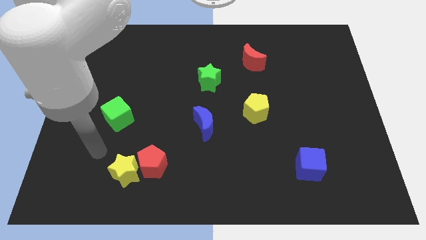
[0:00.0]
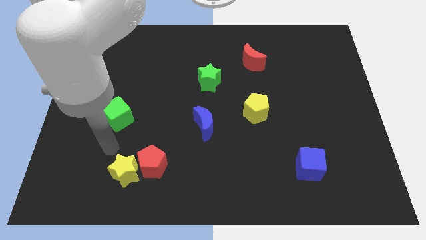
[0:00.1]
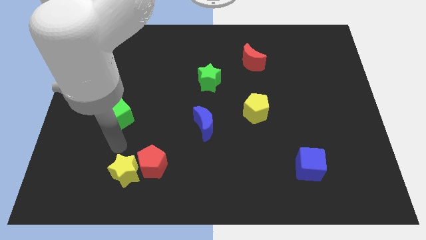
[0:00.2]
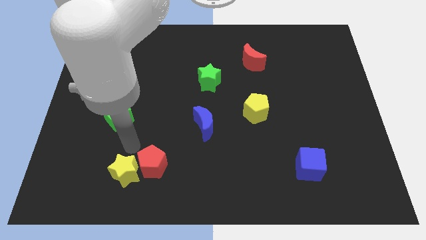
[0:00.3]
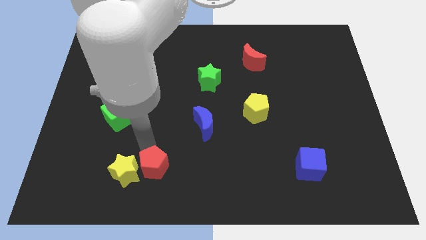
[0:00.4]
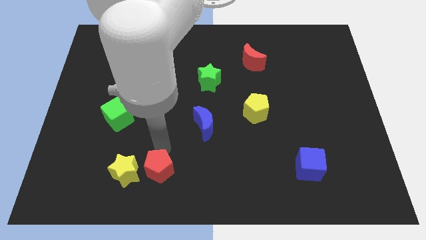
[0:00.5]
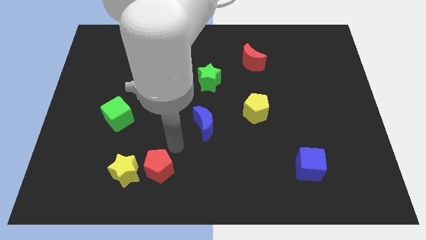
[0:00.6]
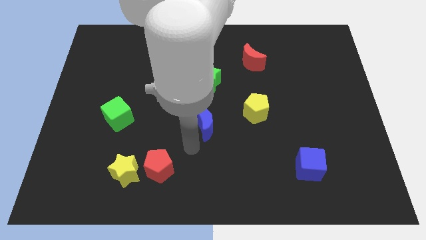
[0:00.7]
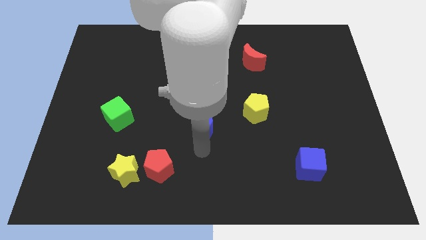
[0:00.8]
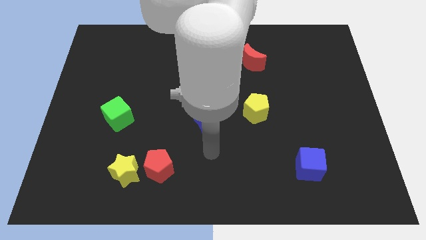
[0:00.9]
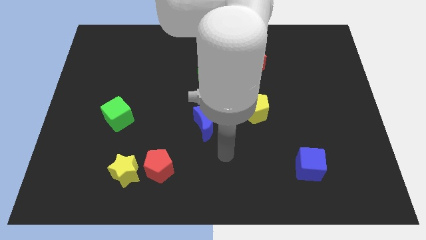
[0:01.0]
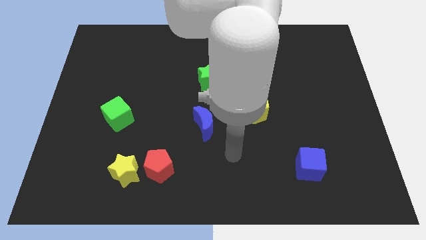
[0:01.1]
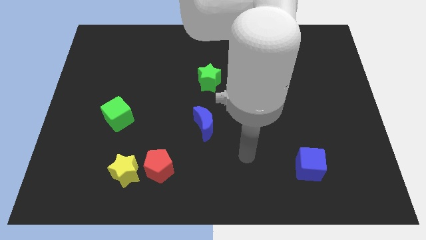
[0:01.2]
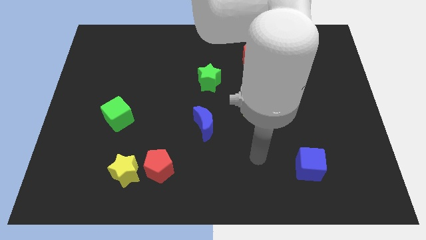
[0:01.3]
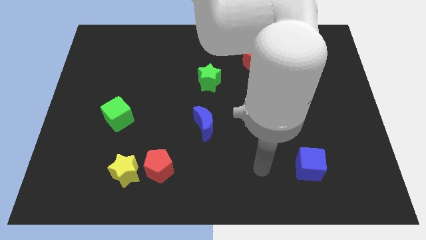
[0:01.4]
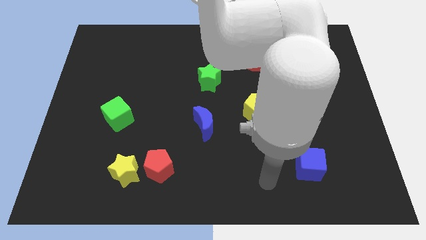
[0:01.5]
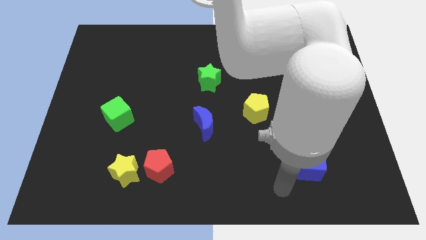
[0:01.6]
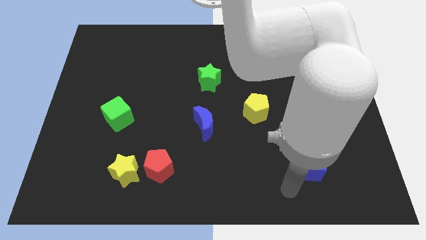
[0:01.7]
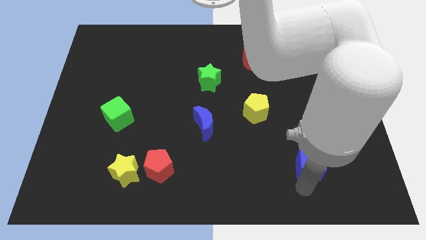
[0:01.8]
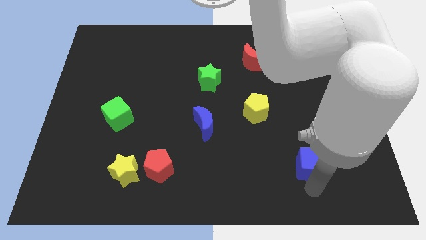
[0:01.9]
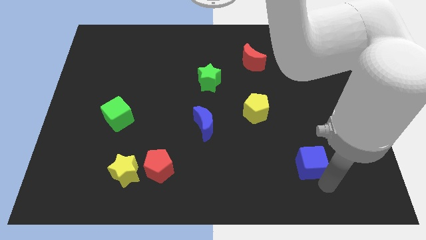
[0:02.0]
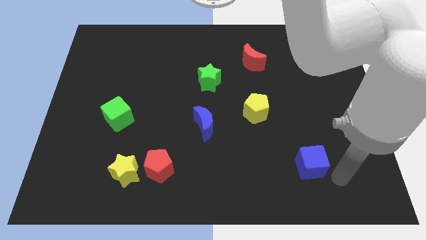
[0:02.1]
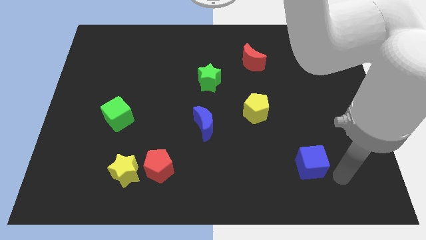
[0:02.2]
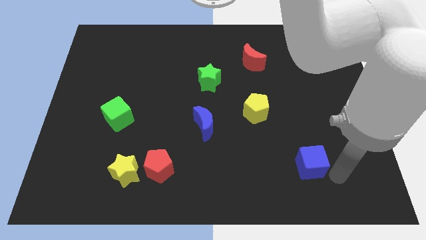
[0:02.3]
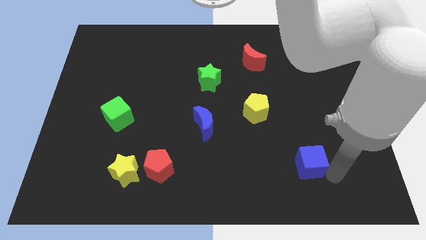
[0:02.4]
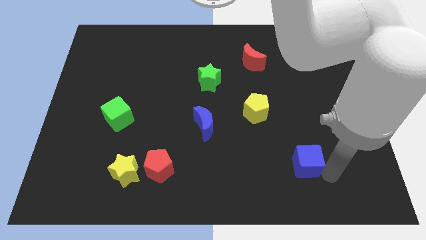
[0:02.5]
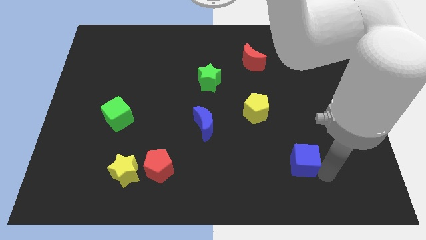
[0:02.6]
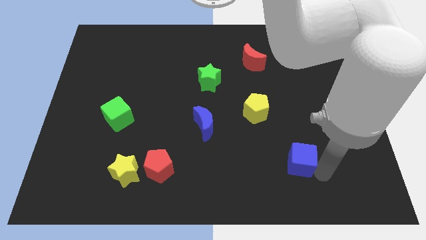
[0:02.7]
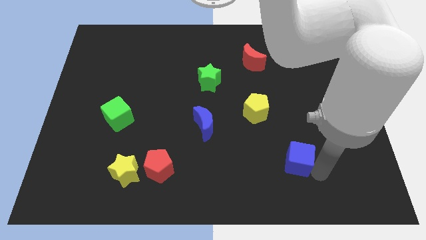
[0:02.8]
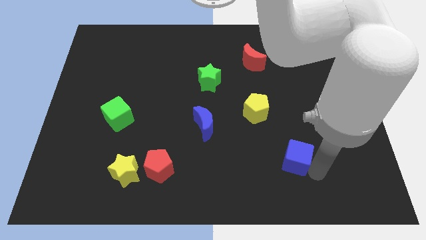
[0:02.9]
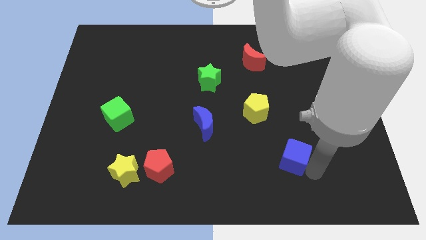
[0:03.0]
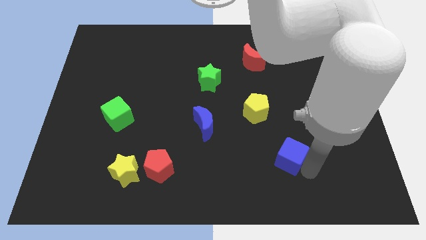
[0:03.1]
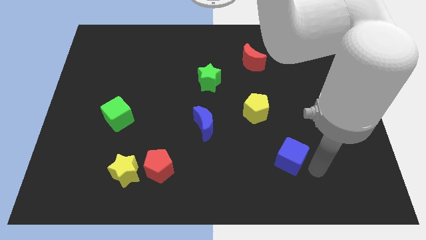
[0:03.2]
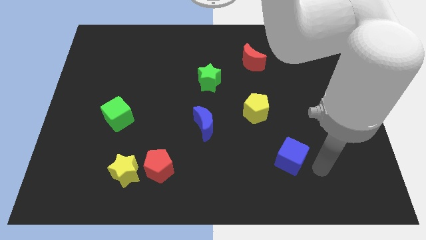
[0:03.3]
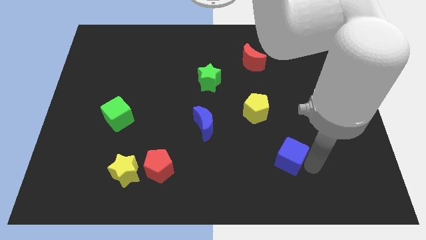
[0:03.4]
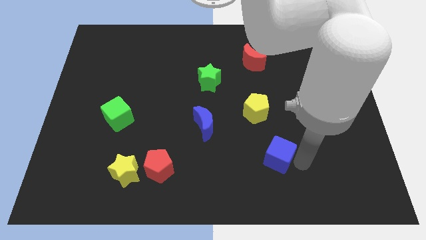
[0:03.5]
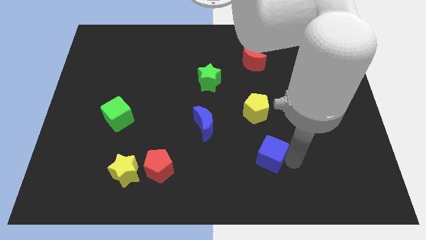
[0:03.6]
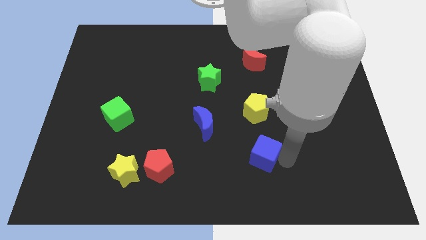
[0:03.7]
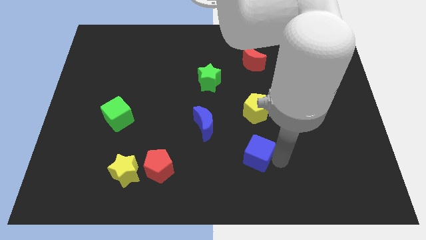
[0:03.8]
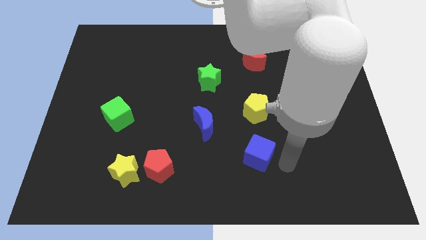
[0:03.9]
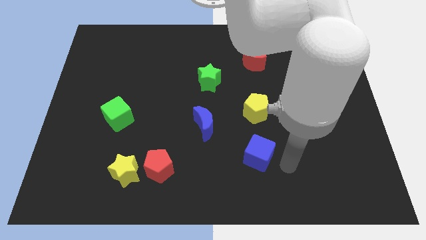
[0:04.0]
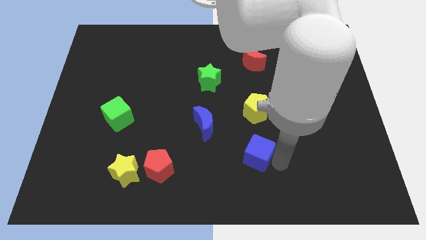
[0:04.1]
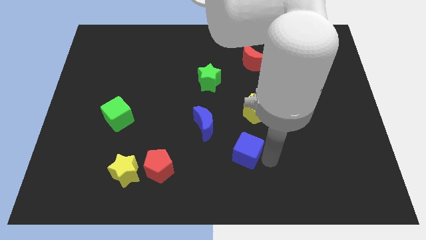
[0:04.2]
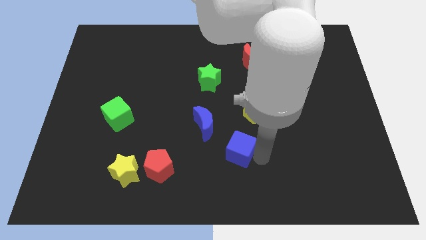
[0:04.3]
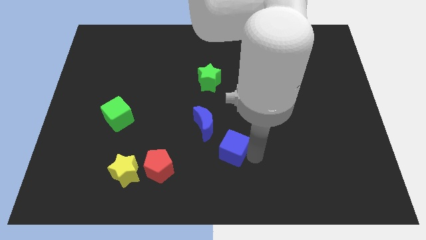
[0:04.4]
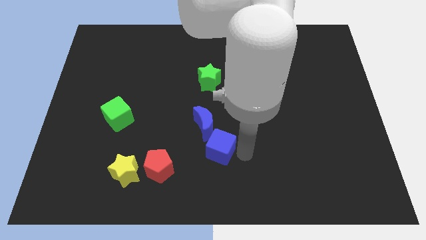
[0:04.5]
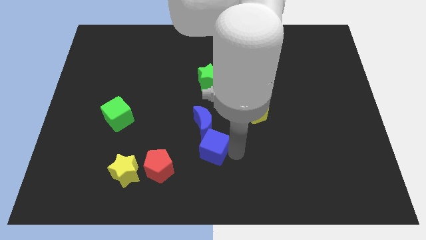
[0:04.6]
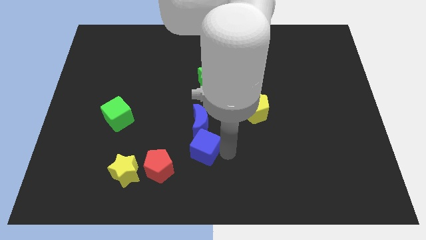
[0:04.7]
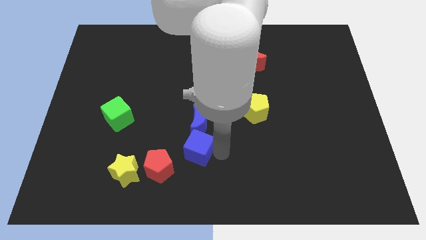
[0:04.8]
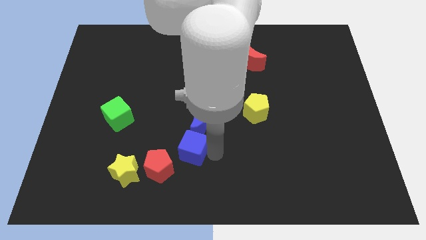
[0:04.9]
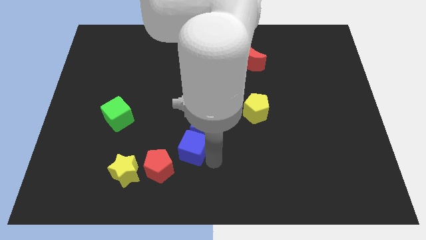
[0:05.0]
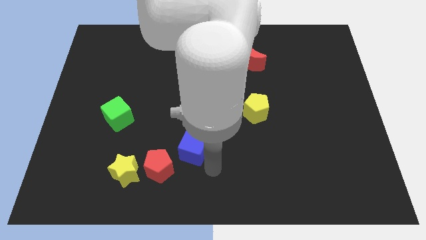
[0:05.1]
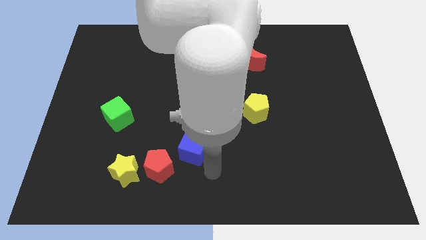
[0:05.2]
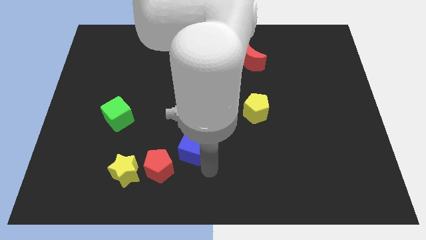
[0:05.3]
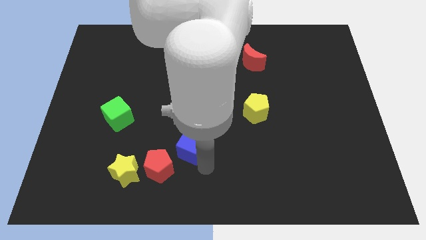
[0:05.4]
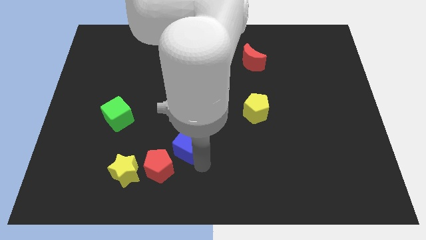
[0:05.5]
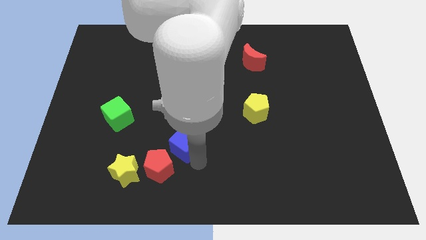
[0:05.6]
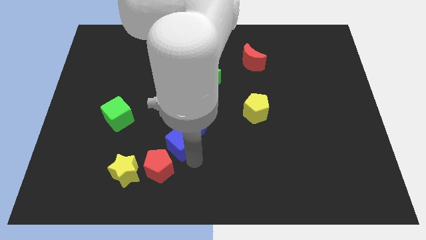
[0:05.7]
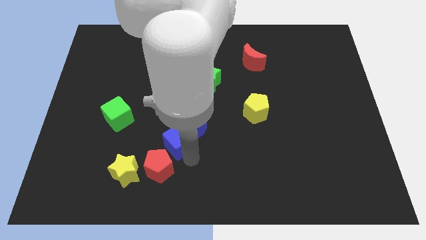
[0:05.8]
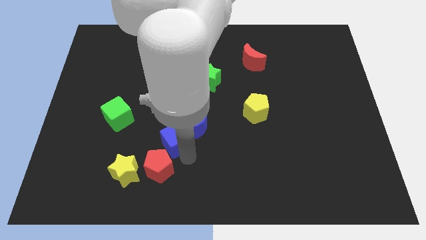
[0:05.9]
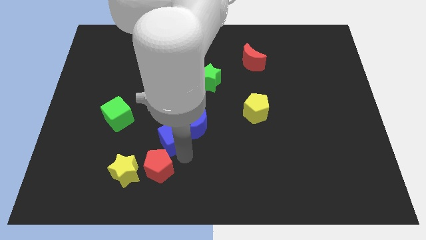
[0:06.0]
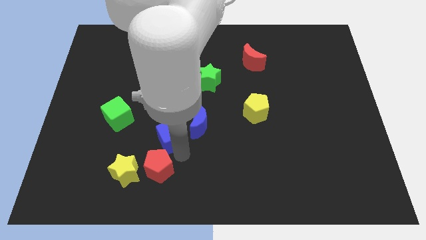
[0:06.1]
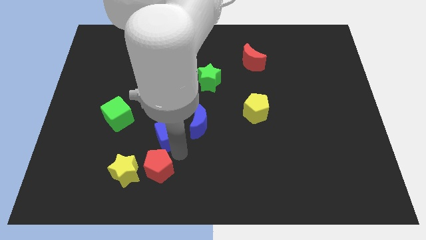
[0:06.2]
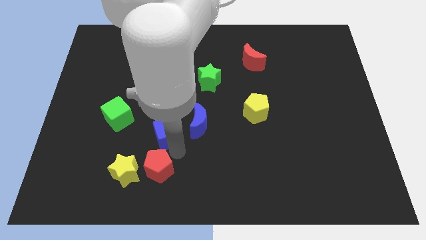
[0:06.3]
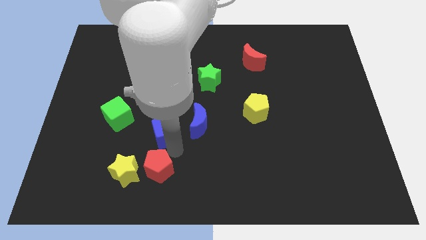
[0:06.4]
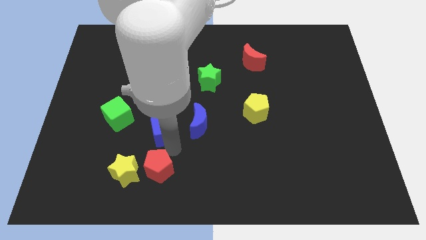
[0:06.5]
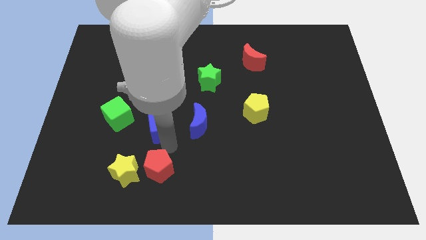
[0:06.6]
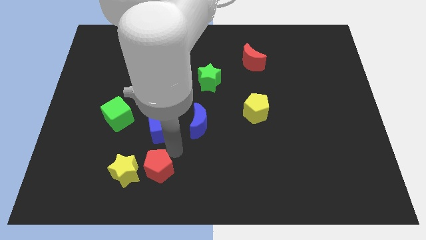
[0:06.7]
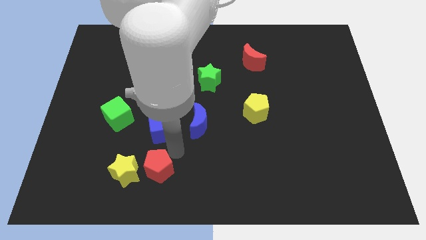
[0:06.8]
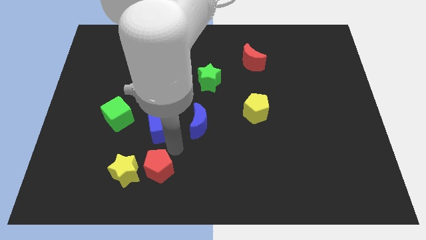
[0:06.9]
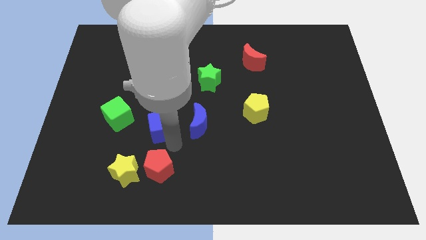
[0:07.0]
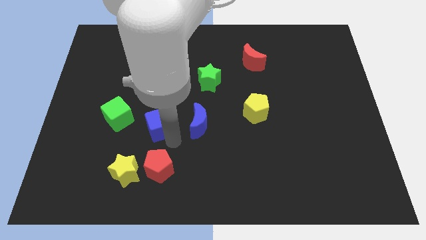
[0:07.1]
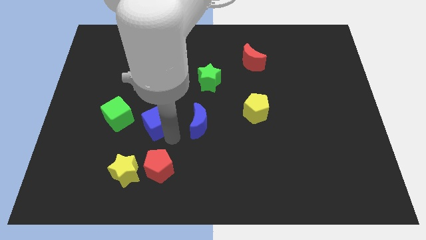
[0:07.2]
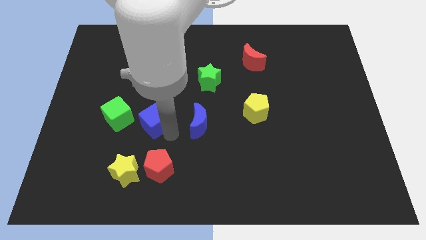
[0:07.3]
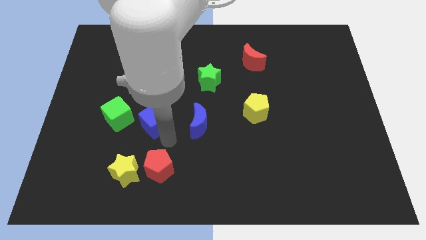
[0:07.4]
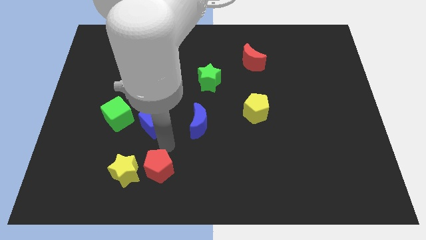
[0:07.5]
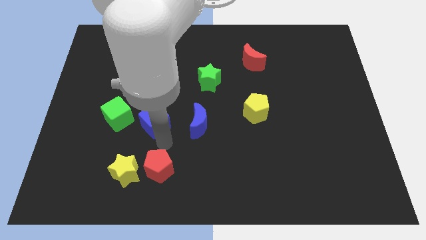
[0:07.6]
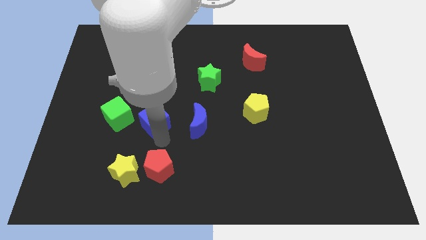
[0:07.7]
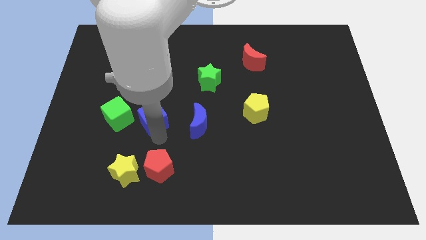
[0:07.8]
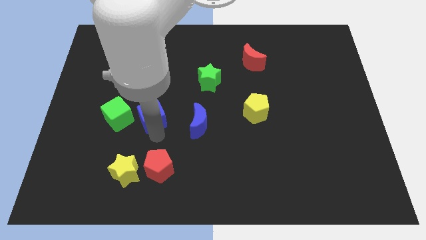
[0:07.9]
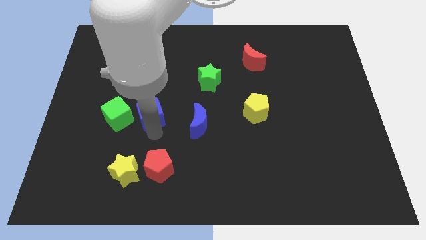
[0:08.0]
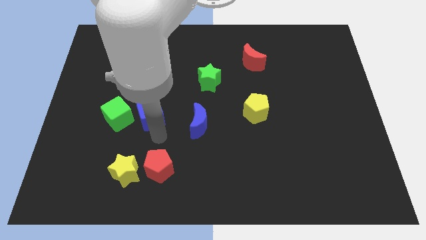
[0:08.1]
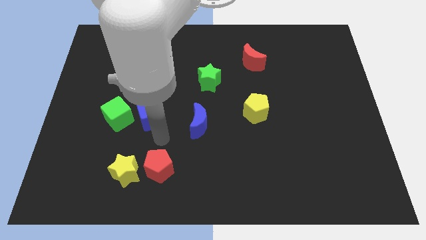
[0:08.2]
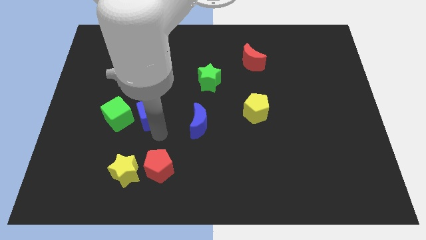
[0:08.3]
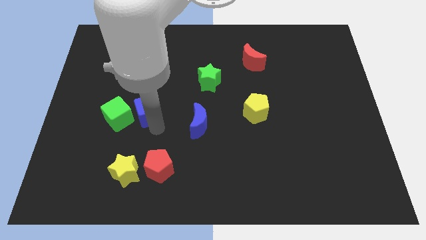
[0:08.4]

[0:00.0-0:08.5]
move the blue cube diagonally up and to the right of the green cube
